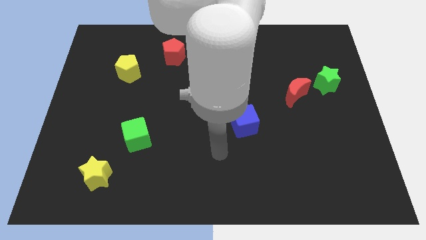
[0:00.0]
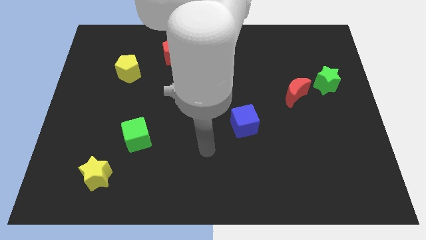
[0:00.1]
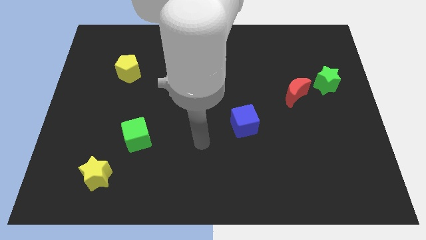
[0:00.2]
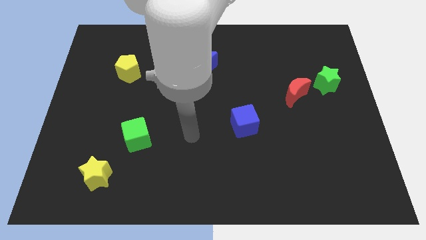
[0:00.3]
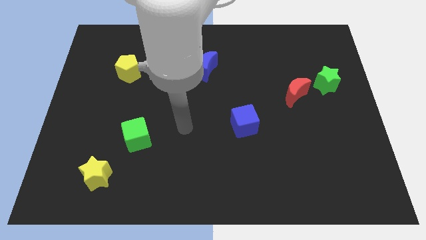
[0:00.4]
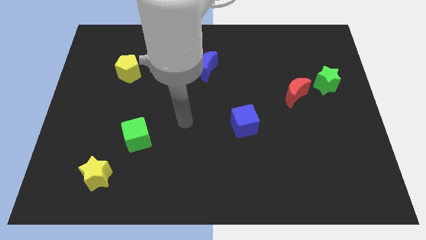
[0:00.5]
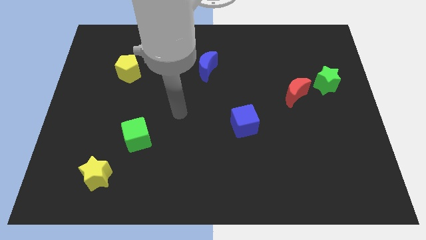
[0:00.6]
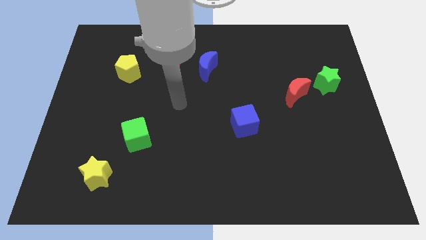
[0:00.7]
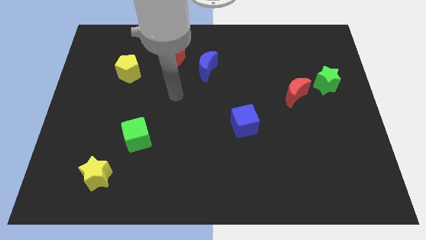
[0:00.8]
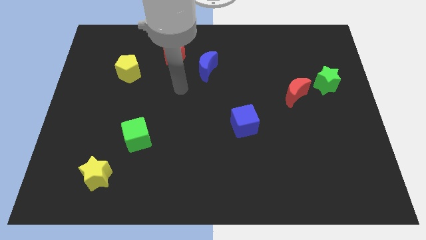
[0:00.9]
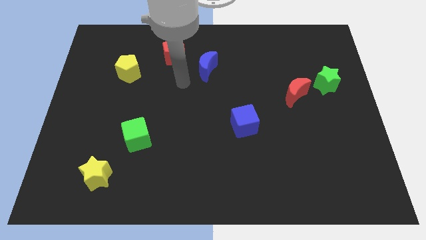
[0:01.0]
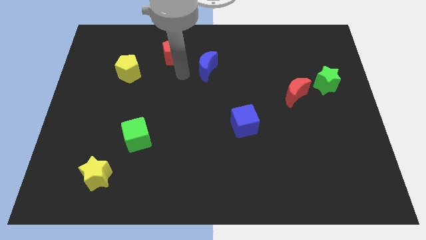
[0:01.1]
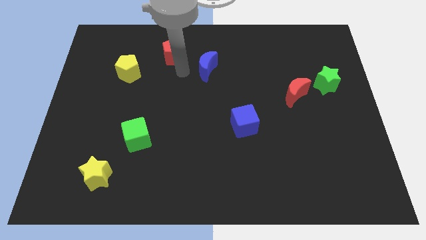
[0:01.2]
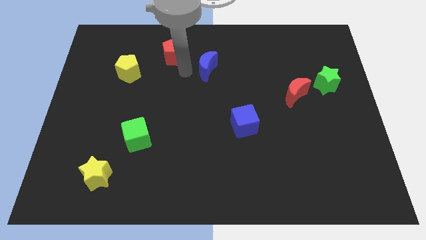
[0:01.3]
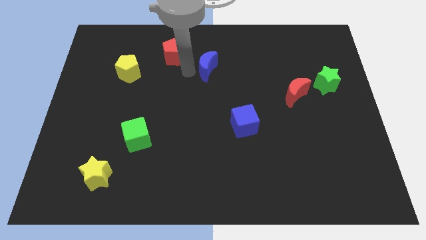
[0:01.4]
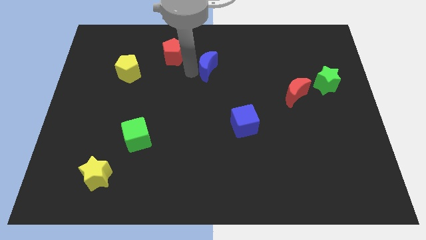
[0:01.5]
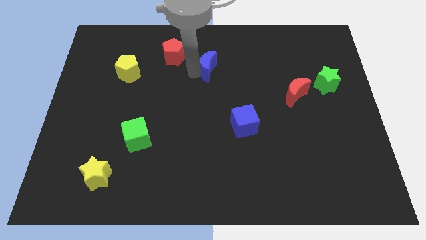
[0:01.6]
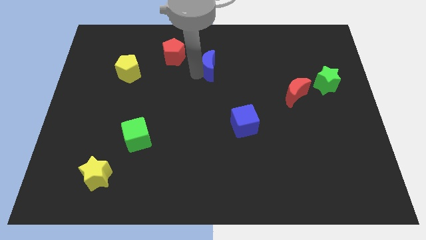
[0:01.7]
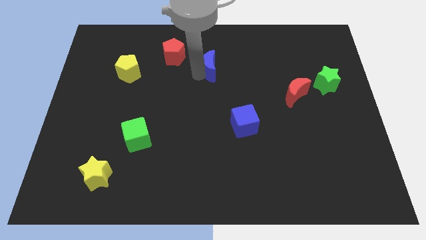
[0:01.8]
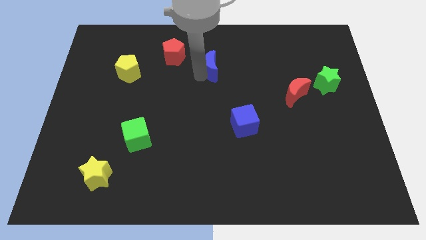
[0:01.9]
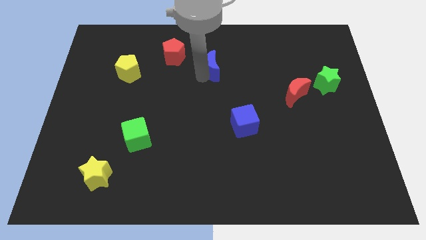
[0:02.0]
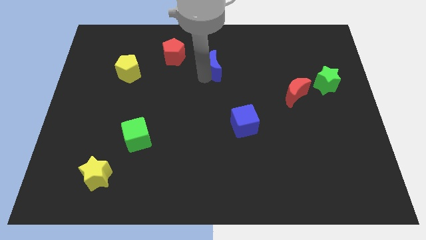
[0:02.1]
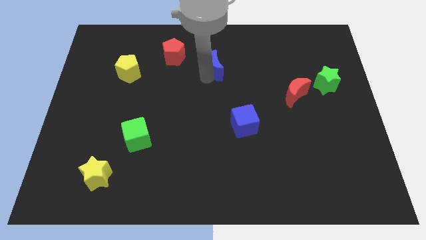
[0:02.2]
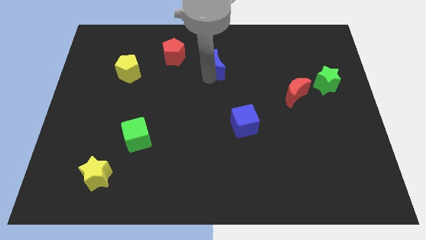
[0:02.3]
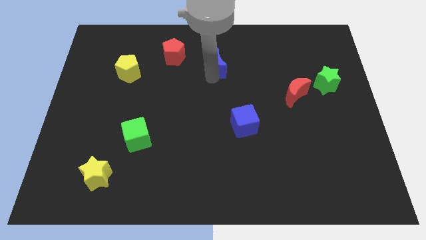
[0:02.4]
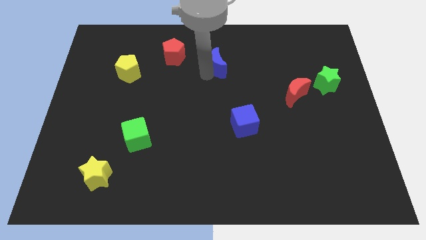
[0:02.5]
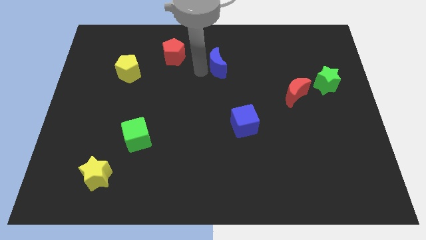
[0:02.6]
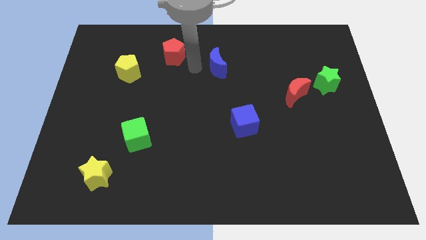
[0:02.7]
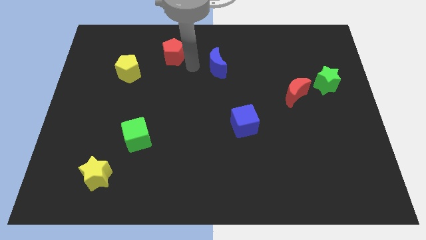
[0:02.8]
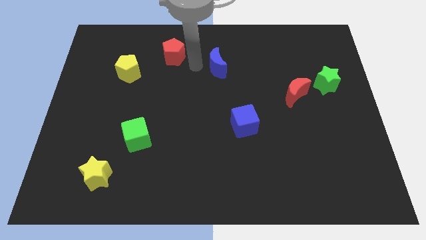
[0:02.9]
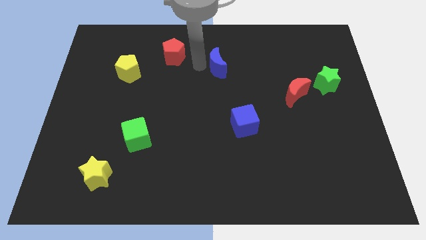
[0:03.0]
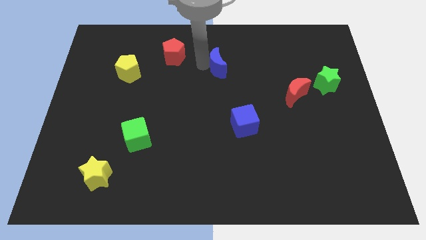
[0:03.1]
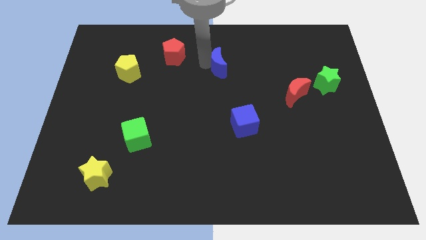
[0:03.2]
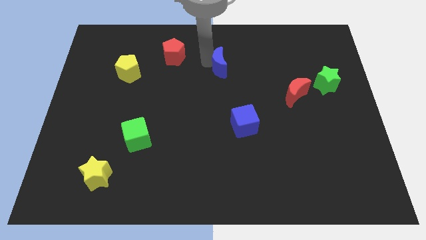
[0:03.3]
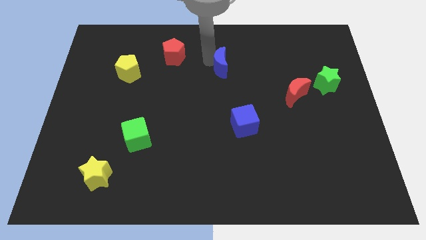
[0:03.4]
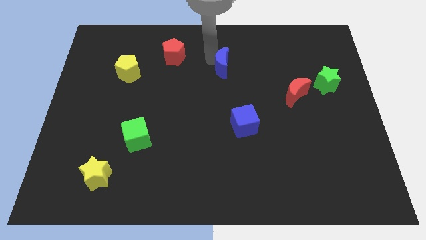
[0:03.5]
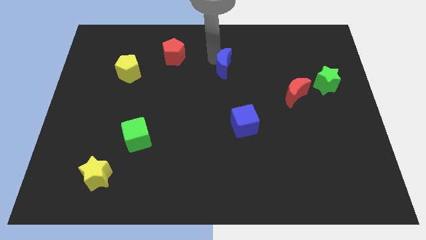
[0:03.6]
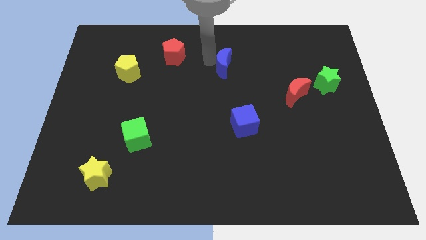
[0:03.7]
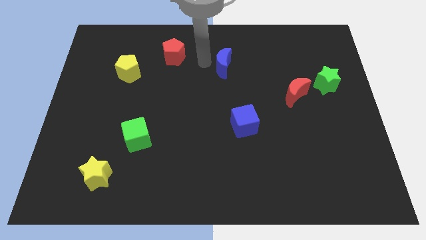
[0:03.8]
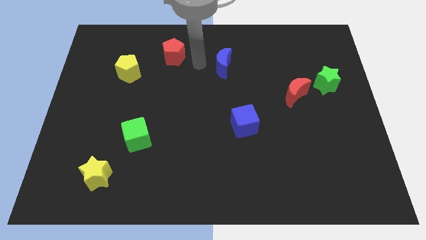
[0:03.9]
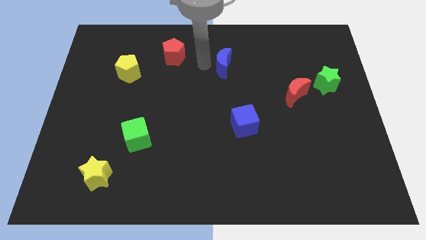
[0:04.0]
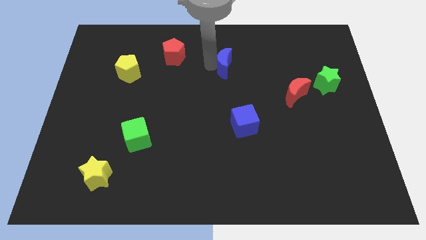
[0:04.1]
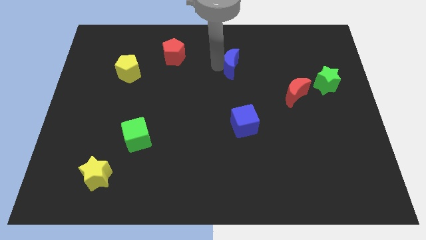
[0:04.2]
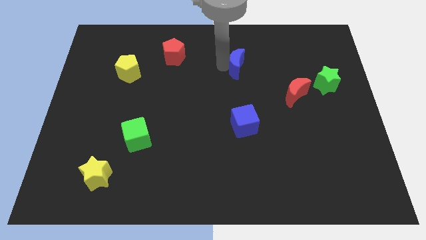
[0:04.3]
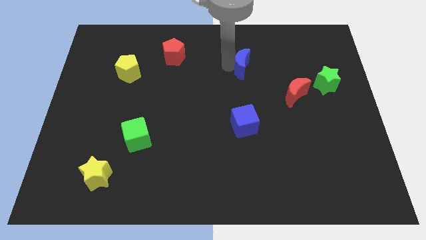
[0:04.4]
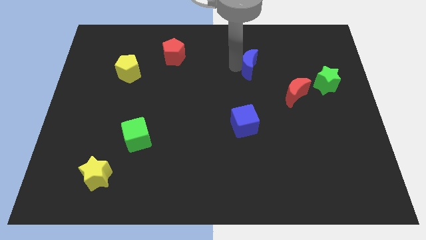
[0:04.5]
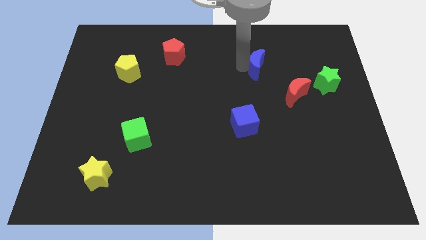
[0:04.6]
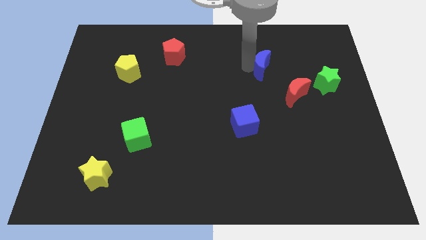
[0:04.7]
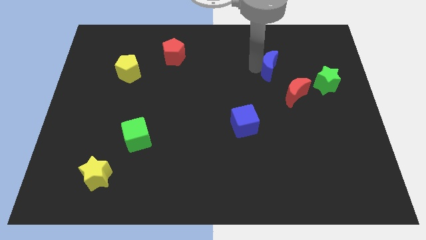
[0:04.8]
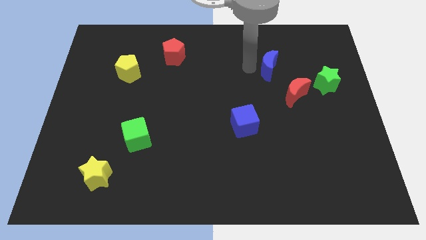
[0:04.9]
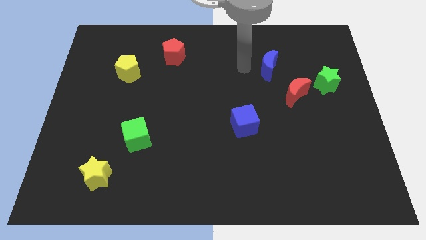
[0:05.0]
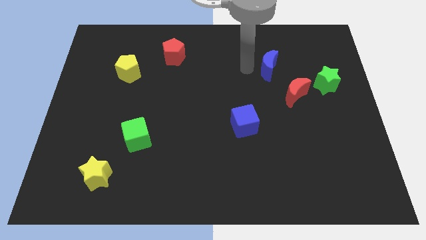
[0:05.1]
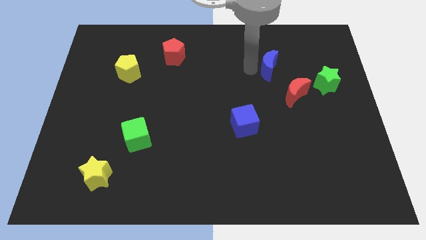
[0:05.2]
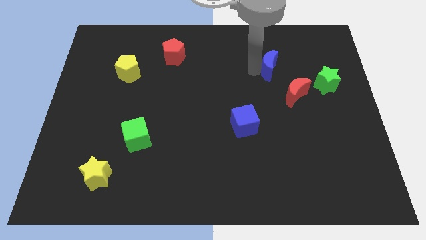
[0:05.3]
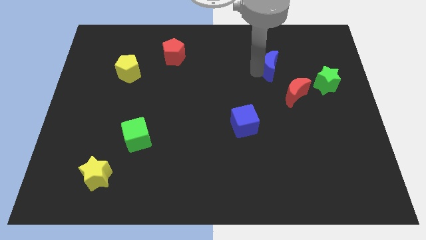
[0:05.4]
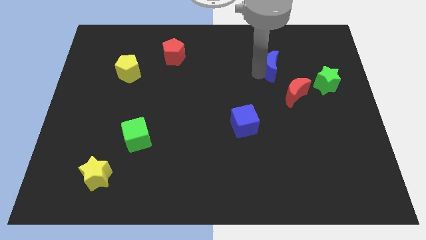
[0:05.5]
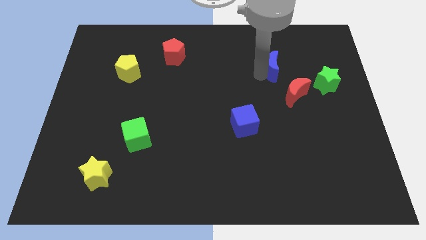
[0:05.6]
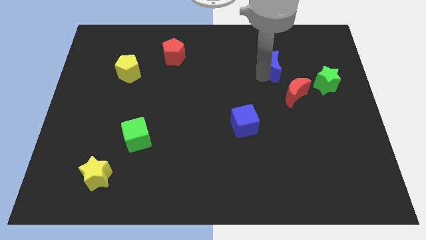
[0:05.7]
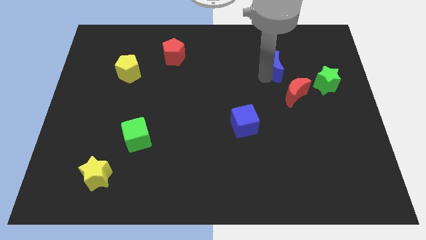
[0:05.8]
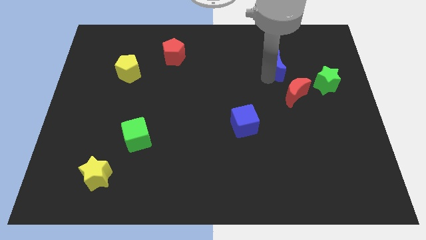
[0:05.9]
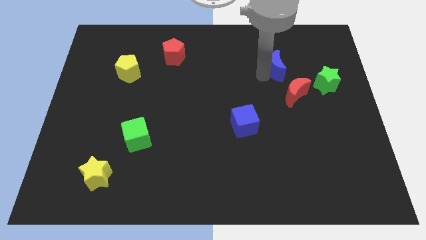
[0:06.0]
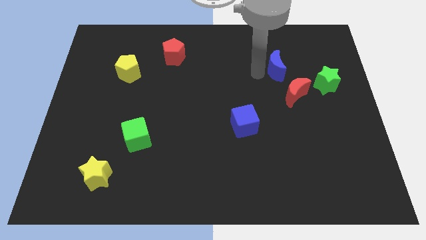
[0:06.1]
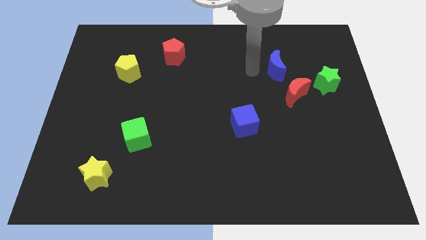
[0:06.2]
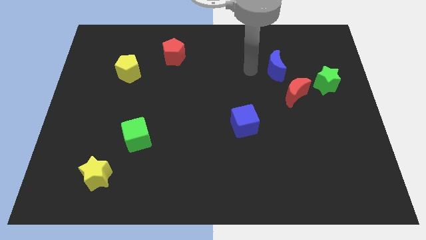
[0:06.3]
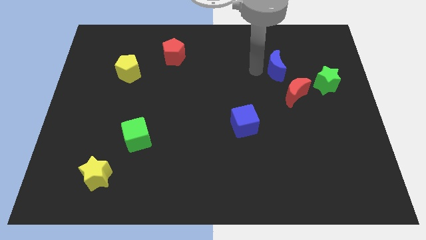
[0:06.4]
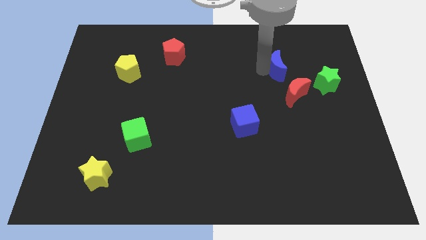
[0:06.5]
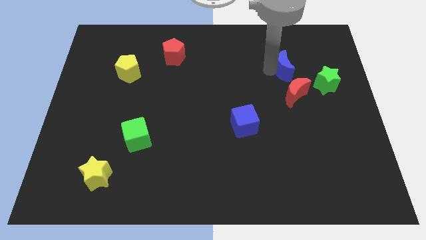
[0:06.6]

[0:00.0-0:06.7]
put the blue moon to the top left of the green star

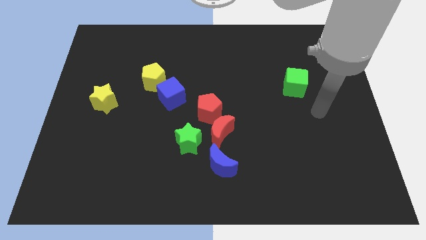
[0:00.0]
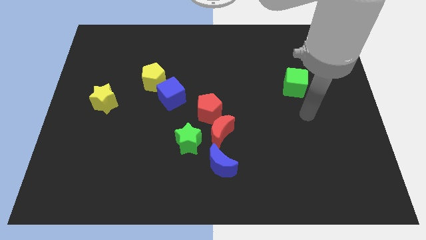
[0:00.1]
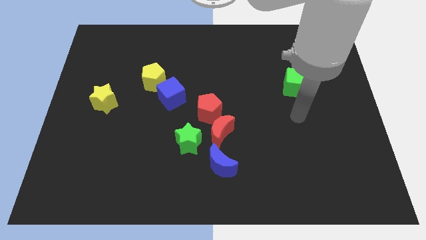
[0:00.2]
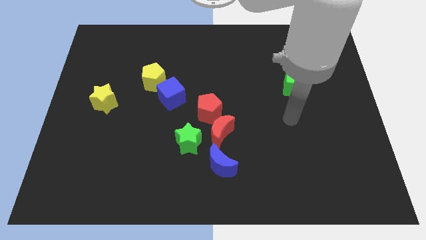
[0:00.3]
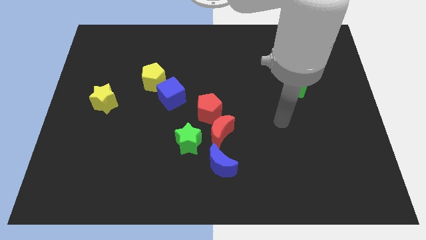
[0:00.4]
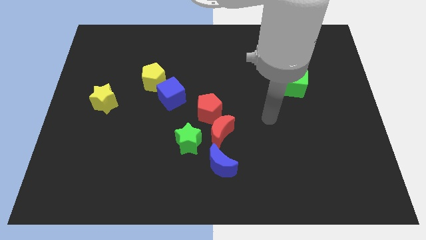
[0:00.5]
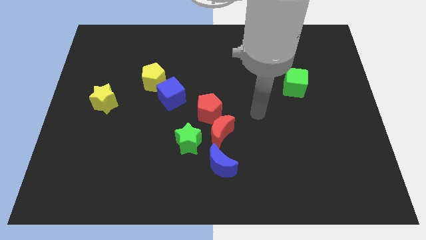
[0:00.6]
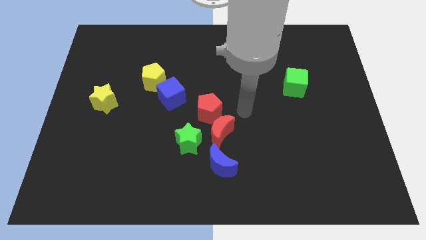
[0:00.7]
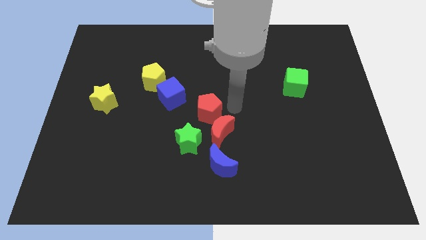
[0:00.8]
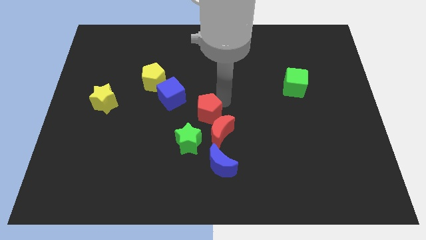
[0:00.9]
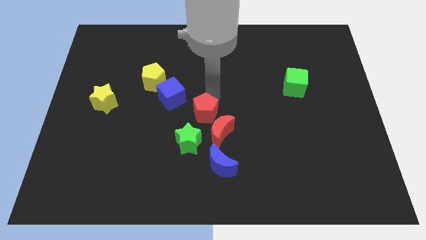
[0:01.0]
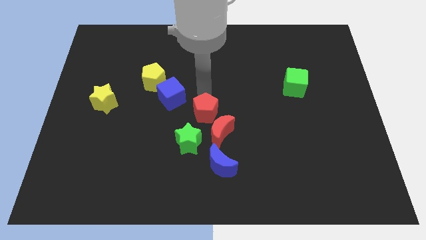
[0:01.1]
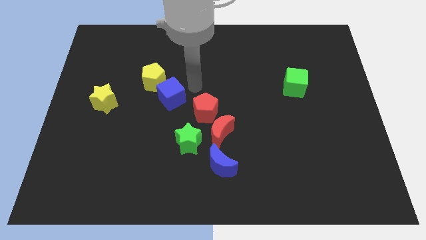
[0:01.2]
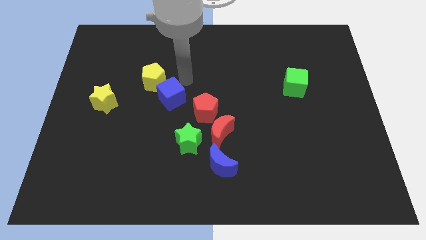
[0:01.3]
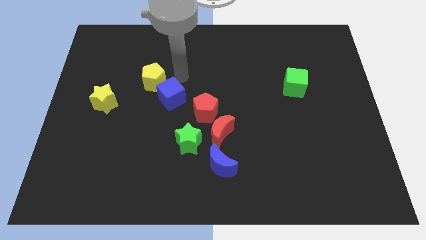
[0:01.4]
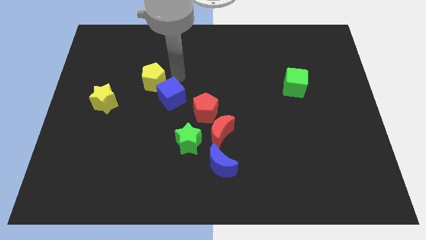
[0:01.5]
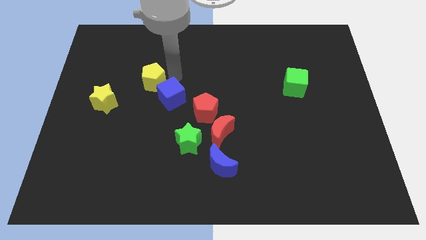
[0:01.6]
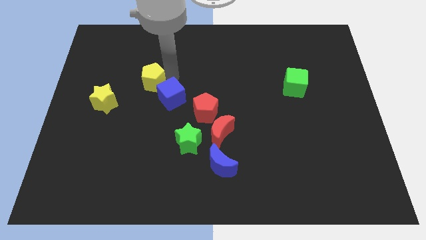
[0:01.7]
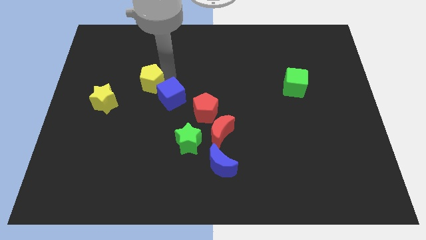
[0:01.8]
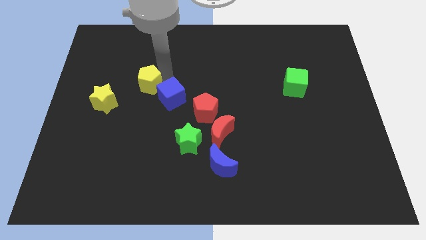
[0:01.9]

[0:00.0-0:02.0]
slide the yellow pentagon to the top right side of the yellow star
